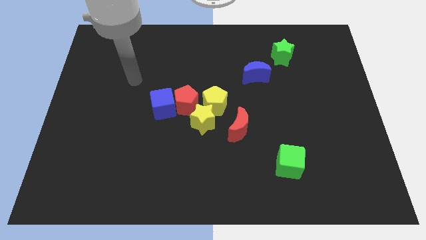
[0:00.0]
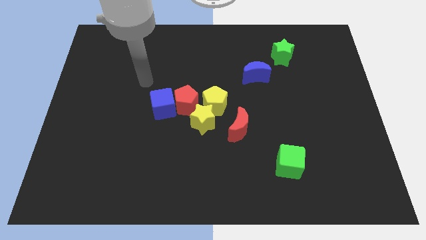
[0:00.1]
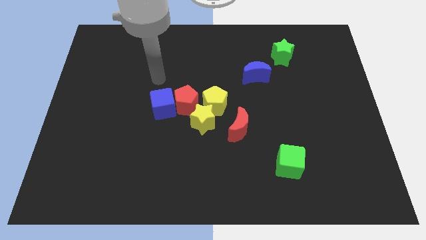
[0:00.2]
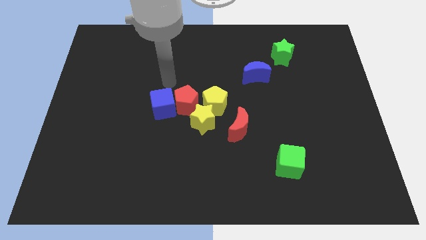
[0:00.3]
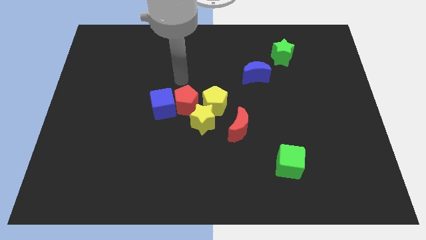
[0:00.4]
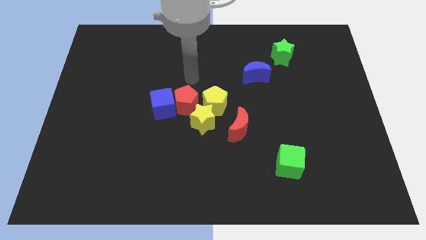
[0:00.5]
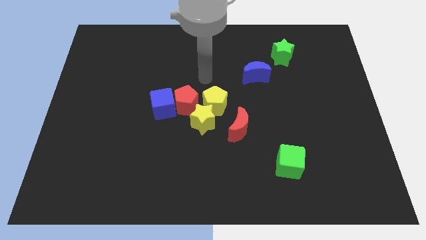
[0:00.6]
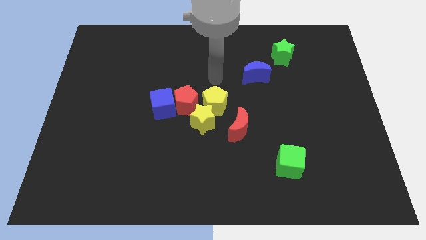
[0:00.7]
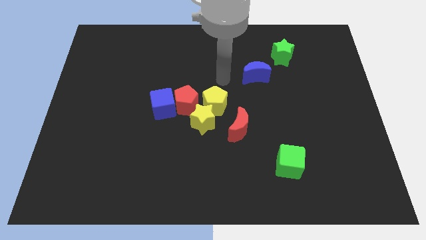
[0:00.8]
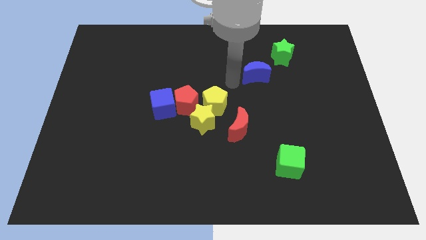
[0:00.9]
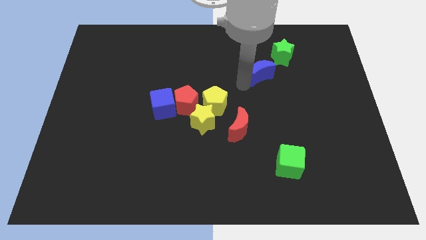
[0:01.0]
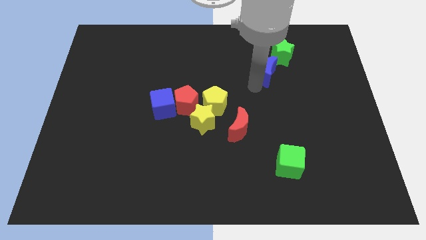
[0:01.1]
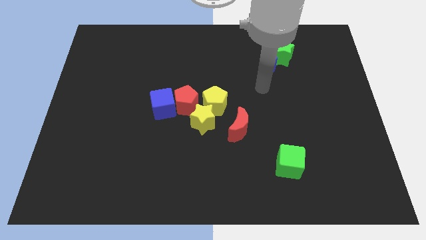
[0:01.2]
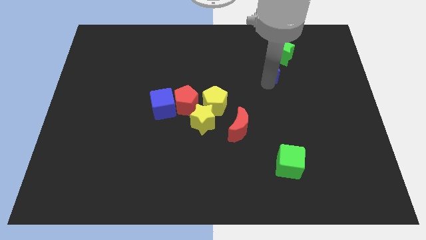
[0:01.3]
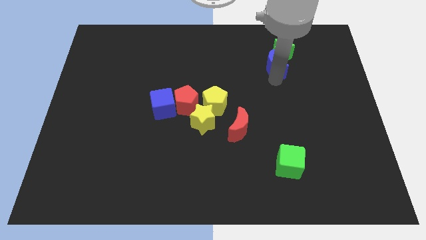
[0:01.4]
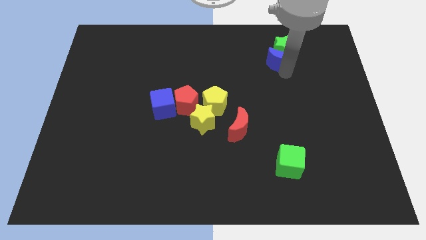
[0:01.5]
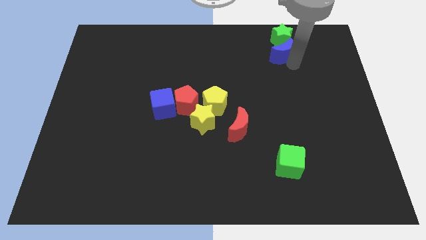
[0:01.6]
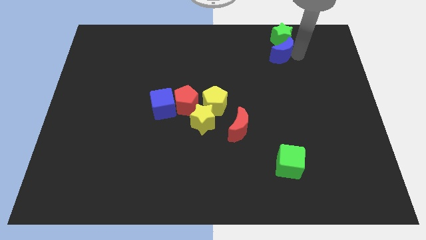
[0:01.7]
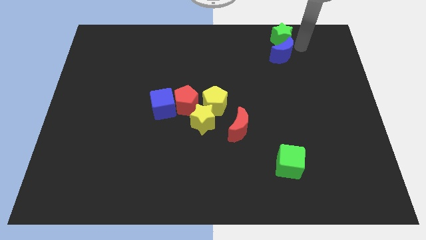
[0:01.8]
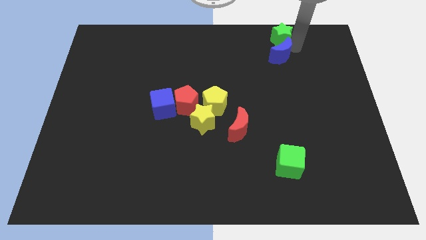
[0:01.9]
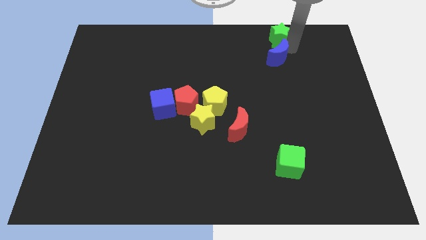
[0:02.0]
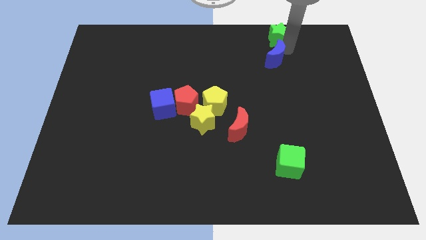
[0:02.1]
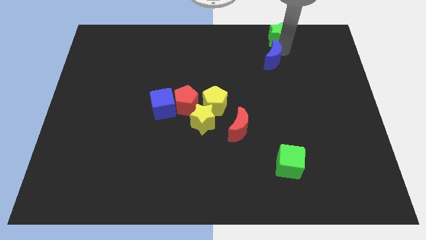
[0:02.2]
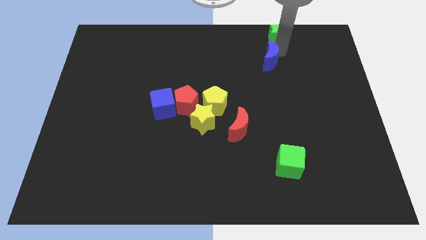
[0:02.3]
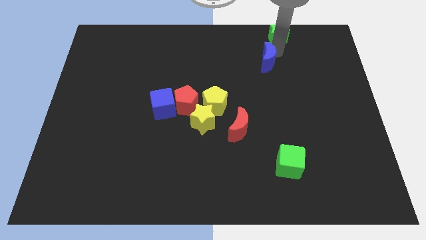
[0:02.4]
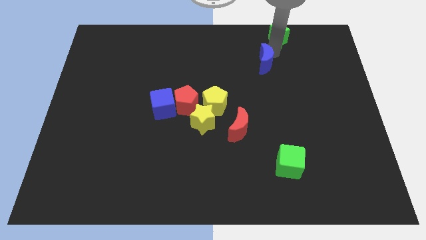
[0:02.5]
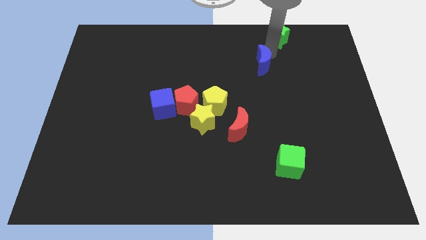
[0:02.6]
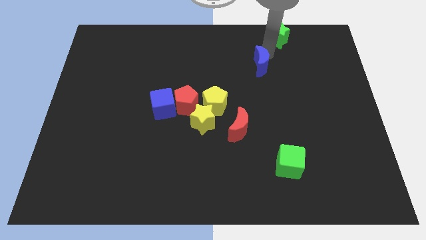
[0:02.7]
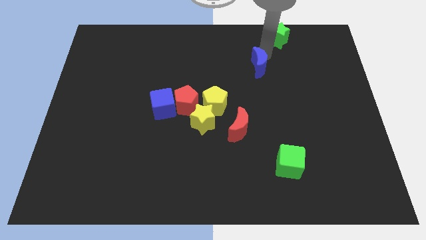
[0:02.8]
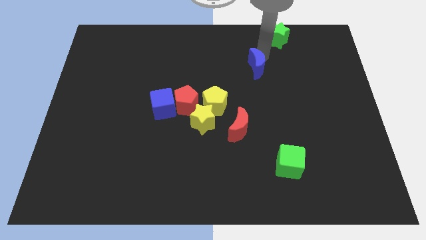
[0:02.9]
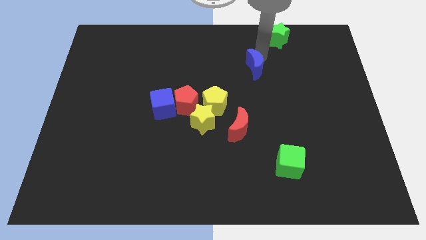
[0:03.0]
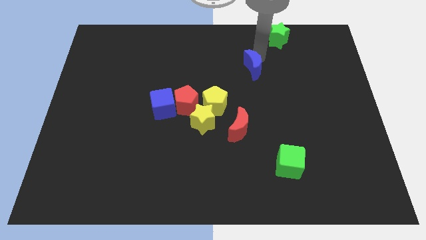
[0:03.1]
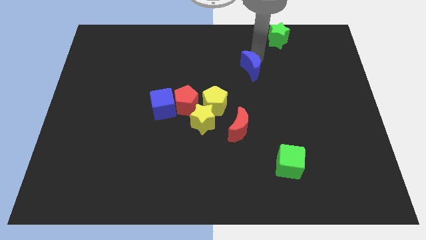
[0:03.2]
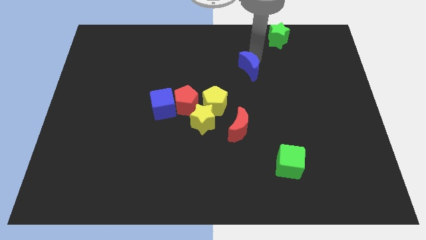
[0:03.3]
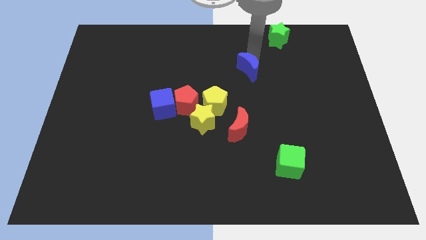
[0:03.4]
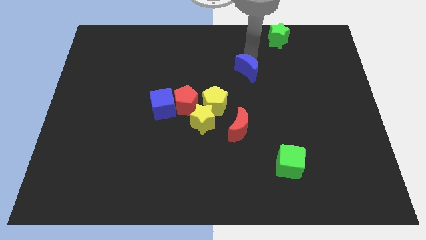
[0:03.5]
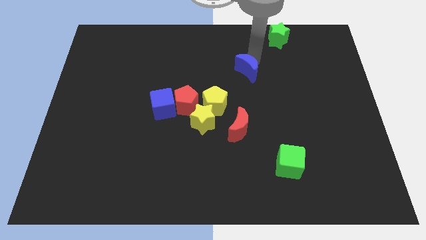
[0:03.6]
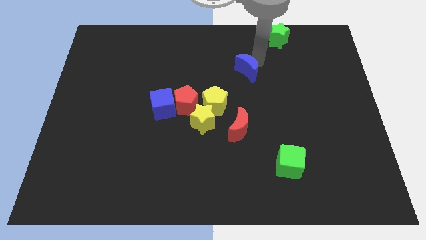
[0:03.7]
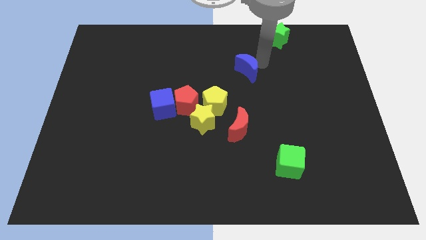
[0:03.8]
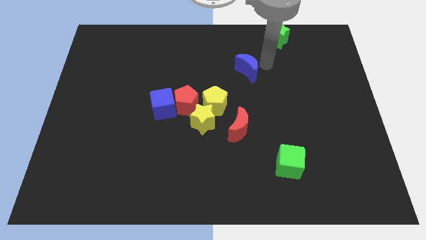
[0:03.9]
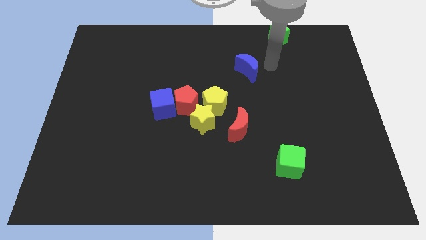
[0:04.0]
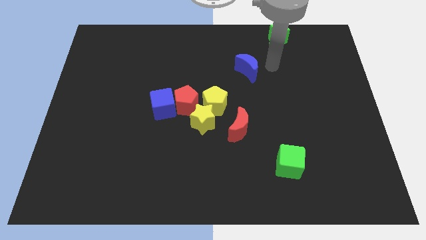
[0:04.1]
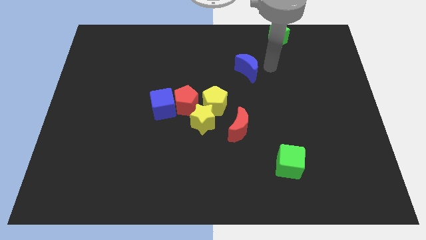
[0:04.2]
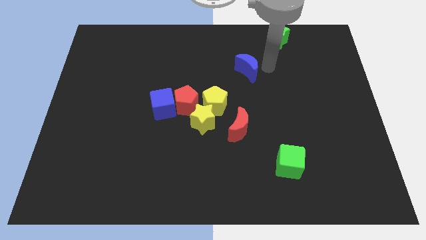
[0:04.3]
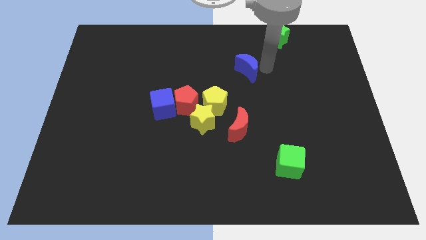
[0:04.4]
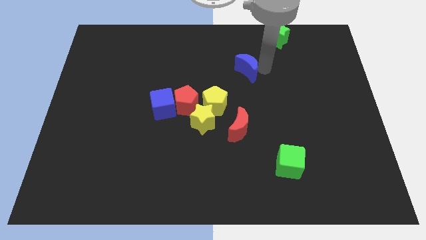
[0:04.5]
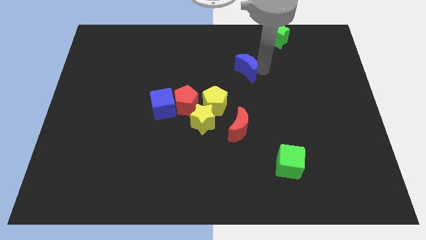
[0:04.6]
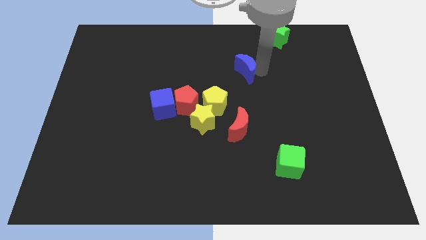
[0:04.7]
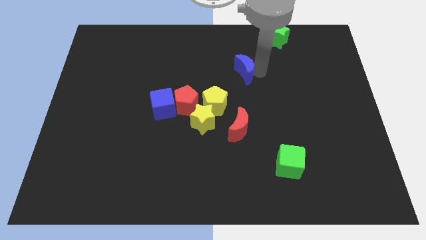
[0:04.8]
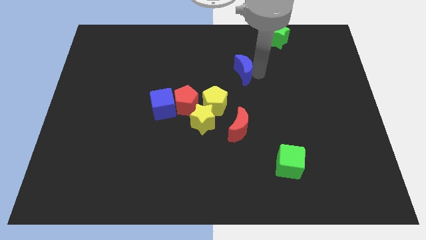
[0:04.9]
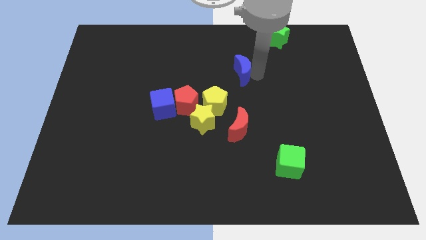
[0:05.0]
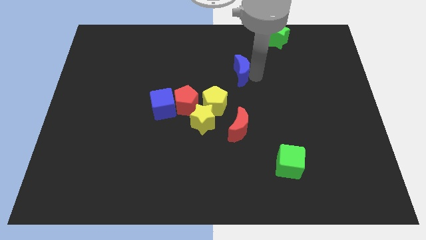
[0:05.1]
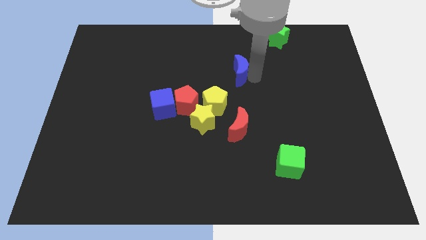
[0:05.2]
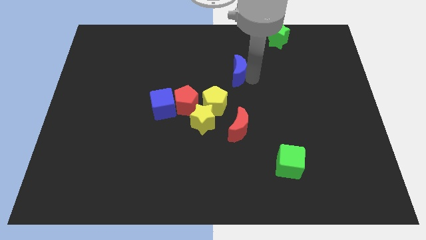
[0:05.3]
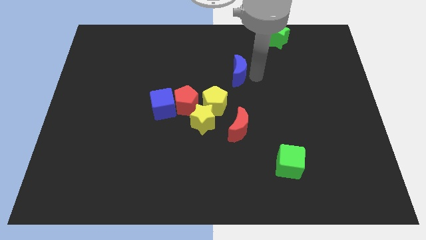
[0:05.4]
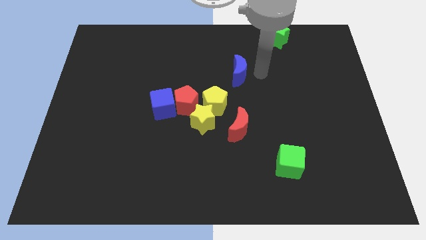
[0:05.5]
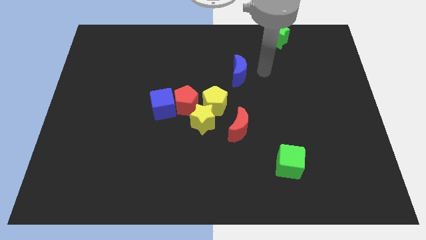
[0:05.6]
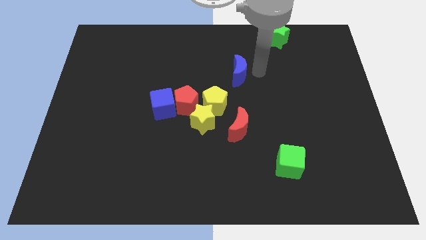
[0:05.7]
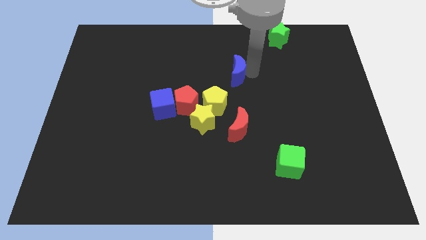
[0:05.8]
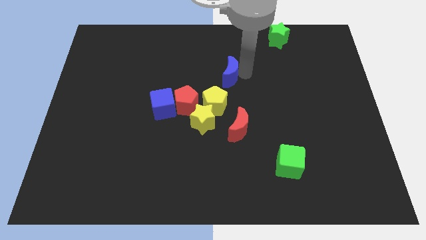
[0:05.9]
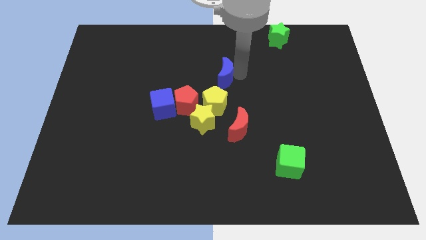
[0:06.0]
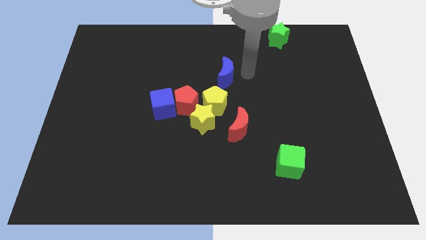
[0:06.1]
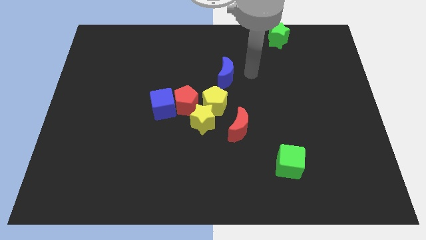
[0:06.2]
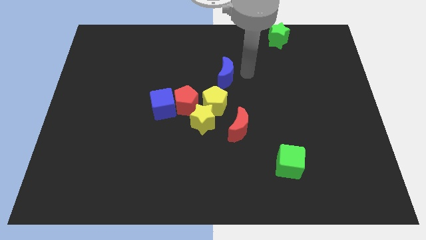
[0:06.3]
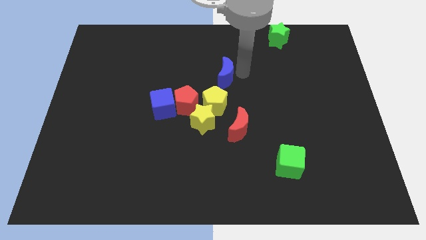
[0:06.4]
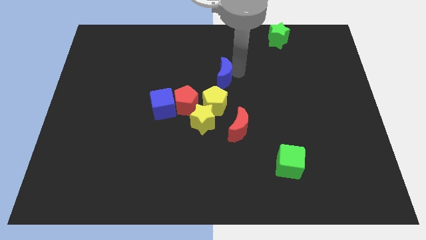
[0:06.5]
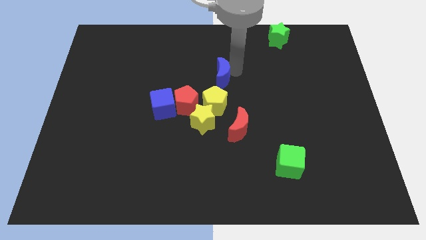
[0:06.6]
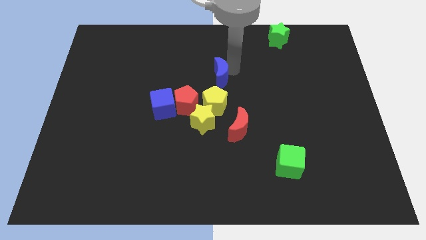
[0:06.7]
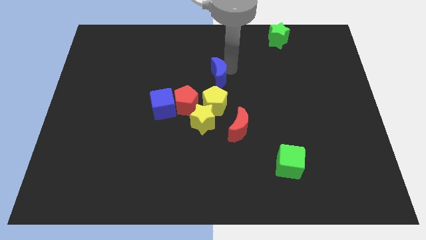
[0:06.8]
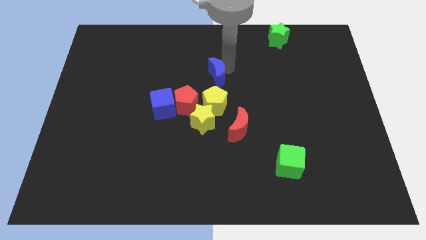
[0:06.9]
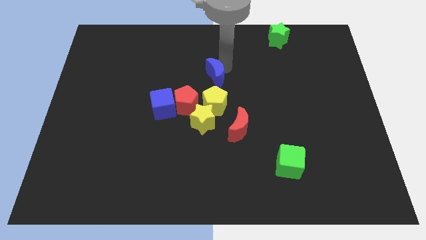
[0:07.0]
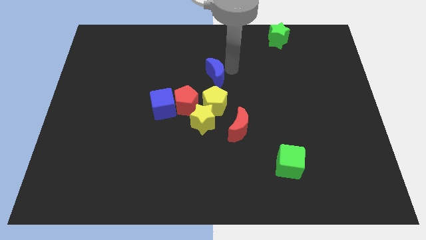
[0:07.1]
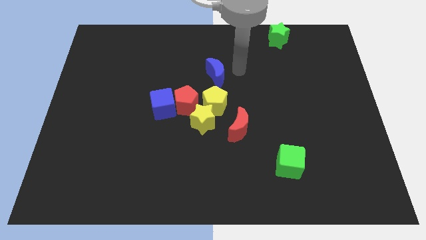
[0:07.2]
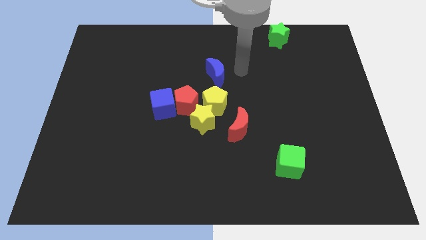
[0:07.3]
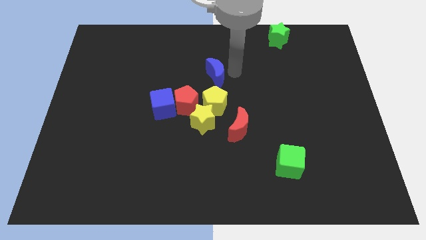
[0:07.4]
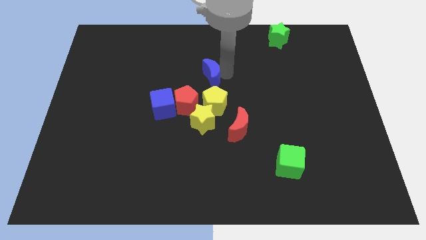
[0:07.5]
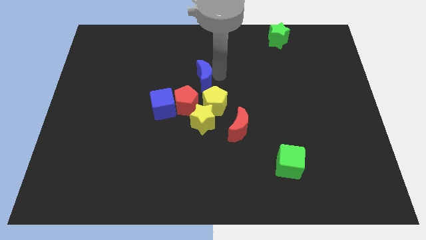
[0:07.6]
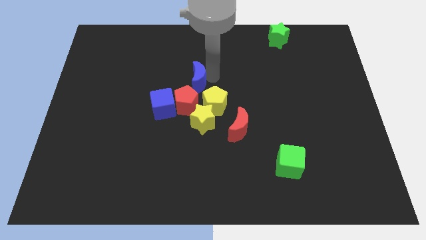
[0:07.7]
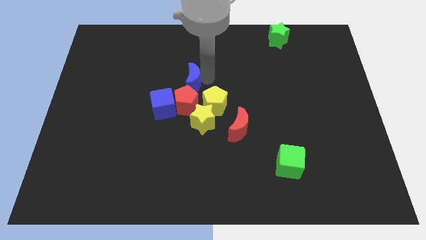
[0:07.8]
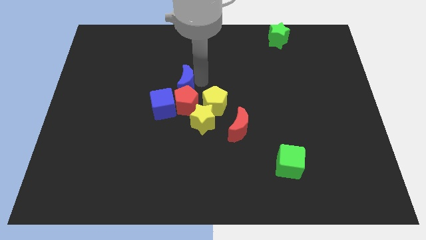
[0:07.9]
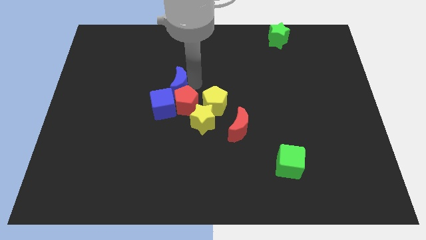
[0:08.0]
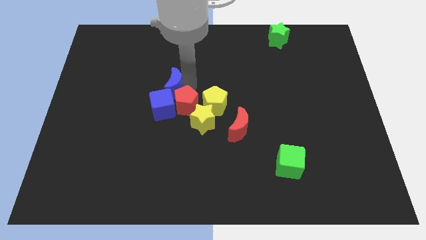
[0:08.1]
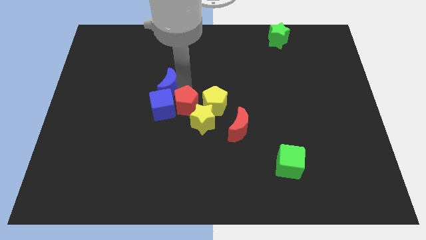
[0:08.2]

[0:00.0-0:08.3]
push the blue moon left

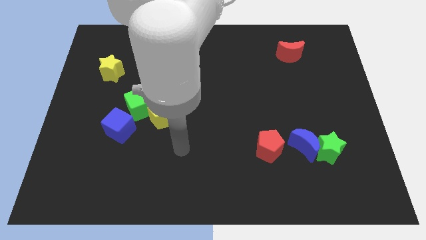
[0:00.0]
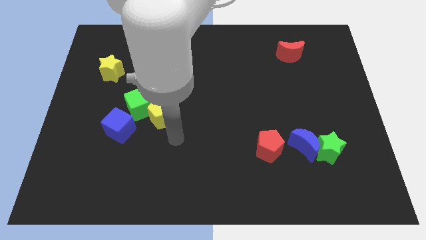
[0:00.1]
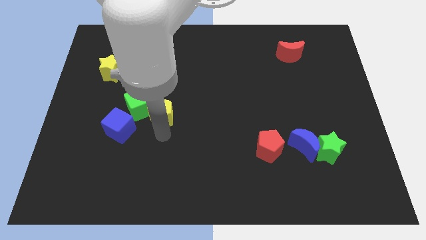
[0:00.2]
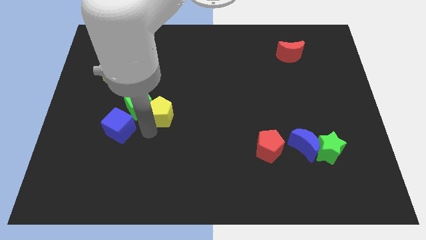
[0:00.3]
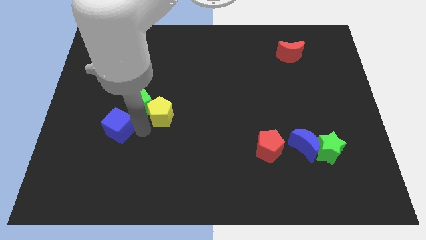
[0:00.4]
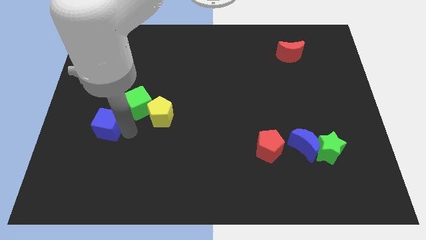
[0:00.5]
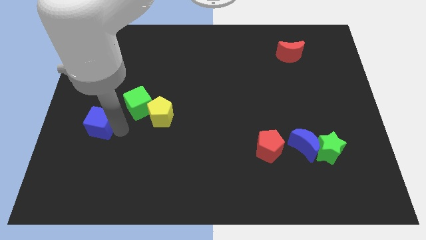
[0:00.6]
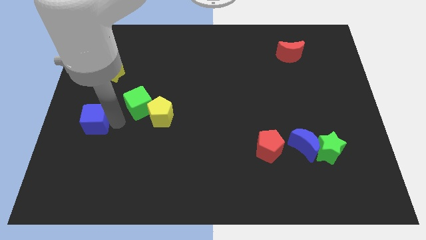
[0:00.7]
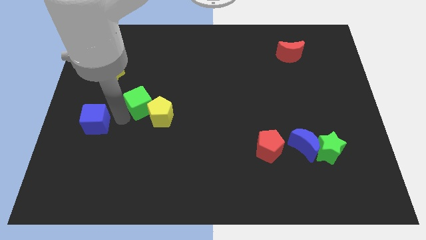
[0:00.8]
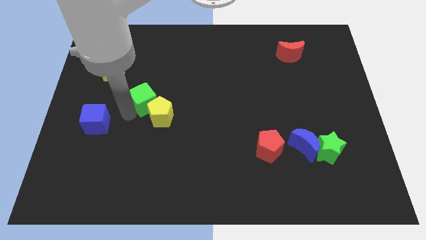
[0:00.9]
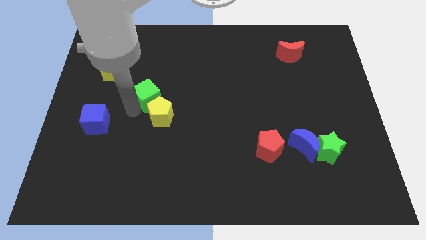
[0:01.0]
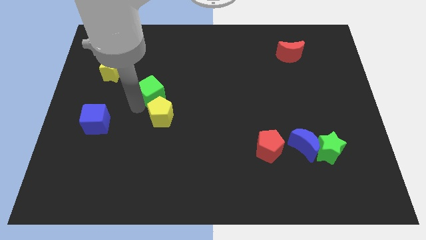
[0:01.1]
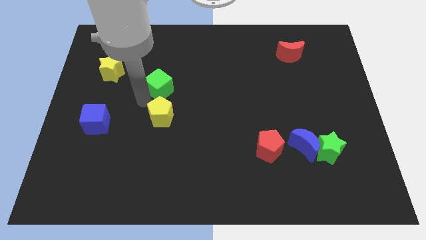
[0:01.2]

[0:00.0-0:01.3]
move the green cube a bit upwards and then right
